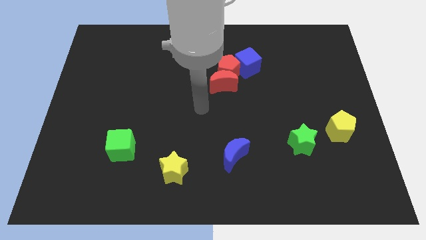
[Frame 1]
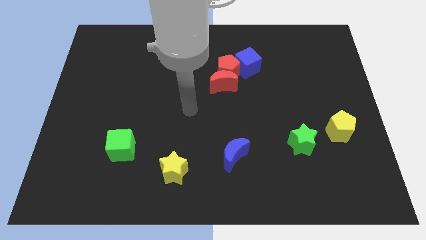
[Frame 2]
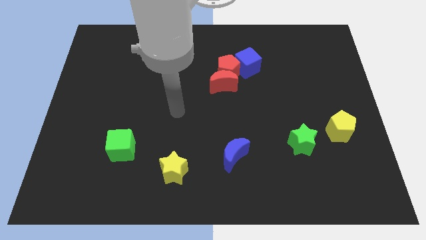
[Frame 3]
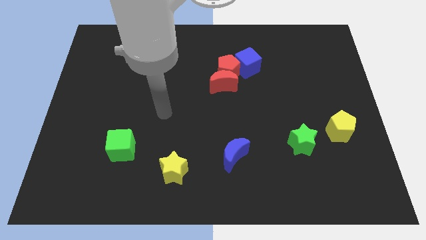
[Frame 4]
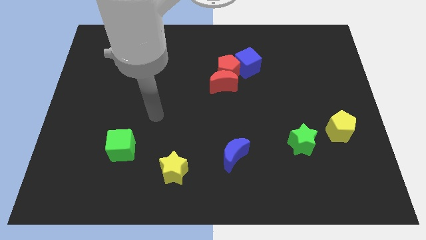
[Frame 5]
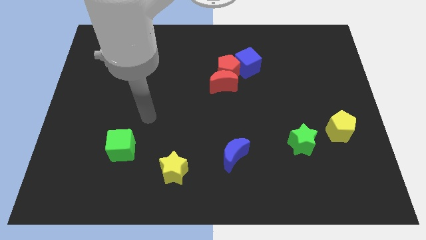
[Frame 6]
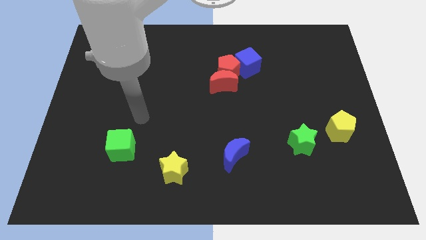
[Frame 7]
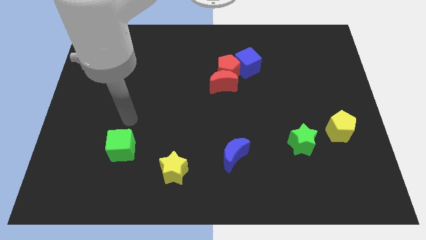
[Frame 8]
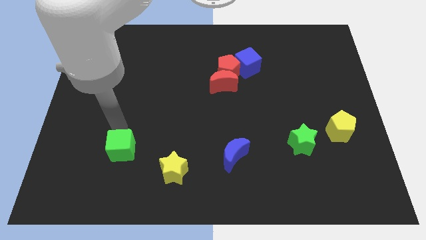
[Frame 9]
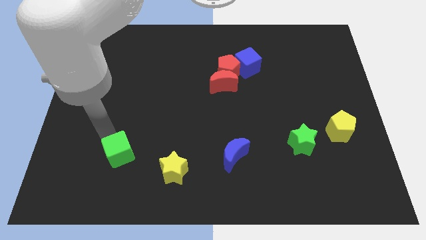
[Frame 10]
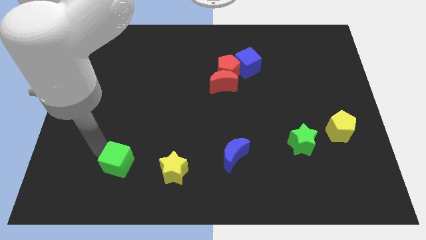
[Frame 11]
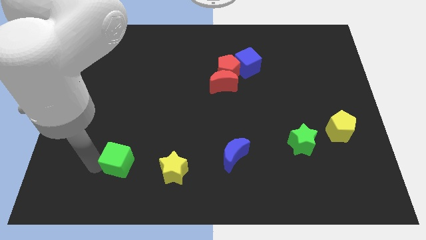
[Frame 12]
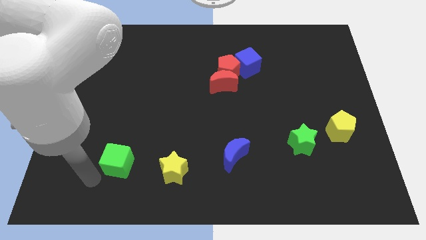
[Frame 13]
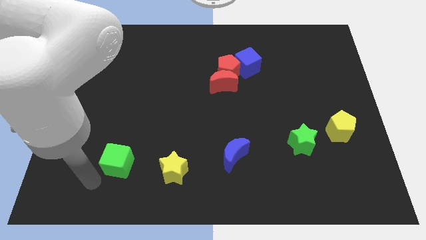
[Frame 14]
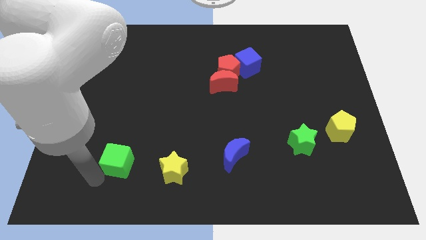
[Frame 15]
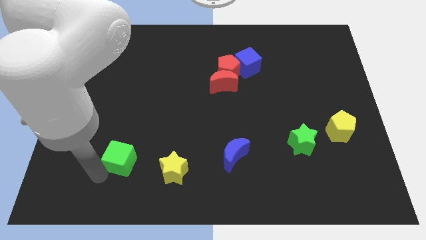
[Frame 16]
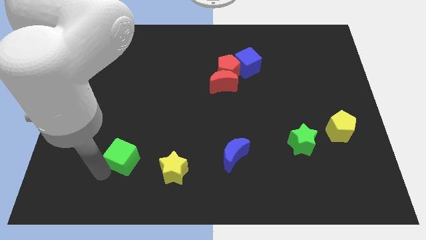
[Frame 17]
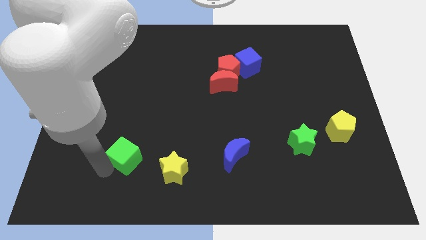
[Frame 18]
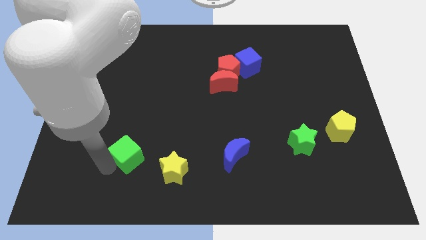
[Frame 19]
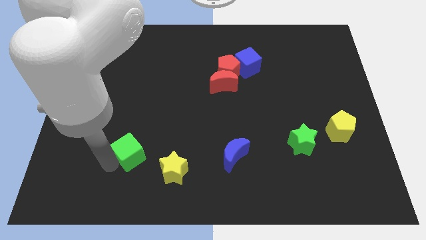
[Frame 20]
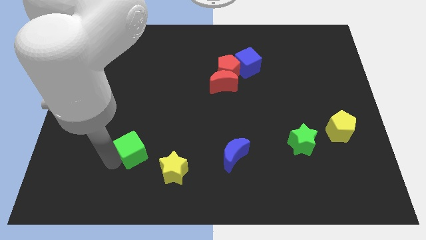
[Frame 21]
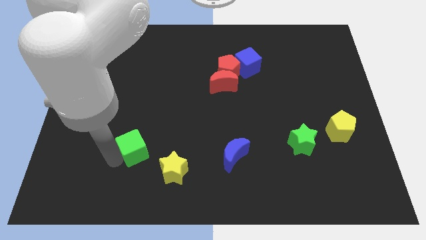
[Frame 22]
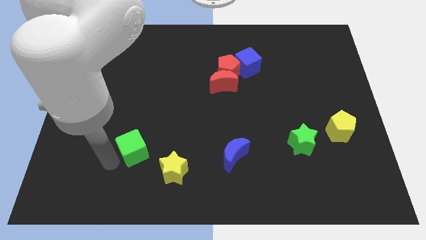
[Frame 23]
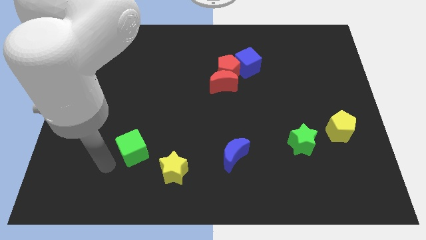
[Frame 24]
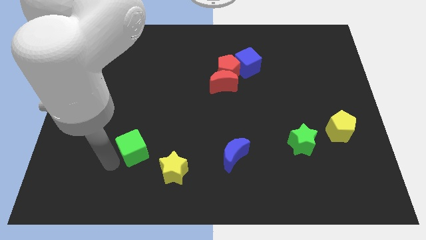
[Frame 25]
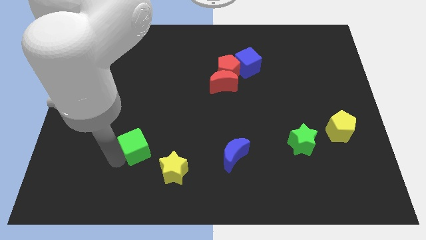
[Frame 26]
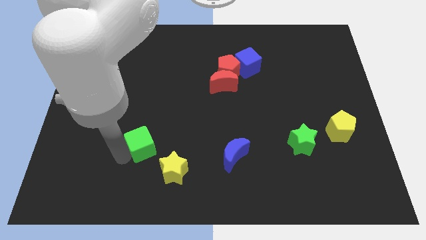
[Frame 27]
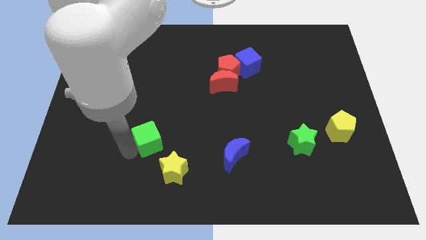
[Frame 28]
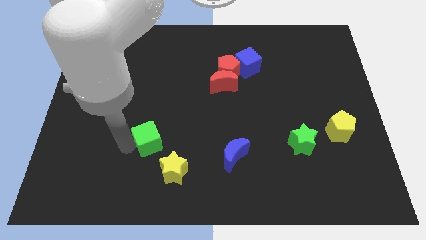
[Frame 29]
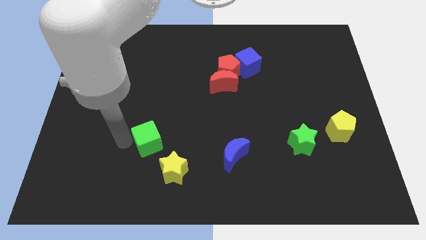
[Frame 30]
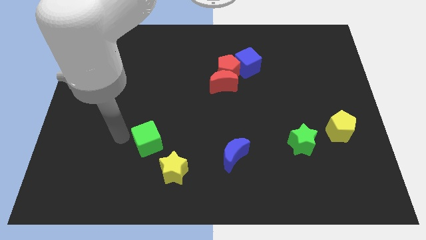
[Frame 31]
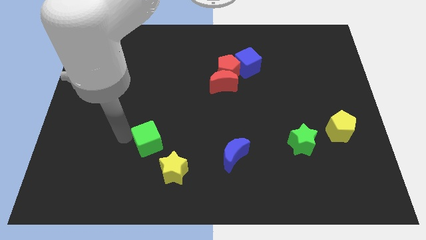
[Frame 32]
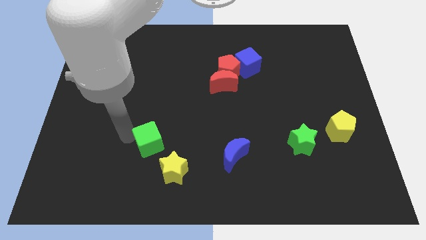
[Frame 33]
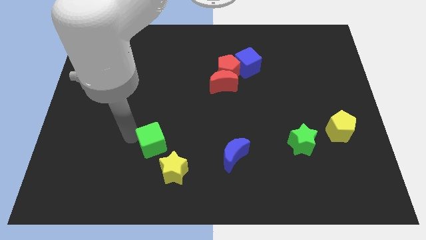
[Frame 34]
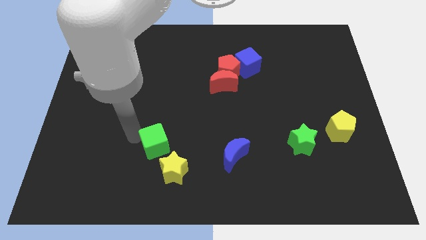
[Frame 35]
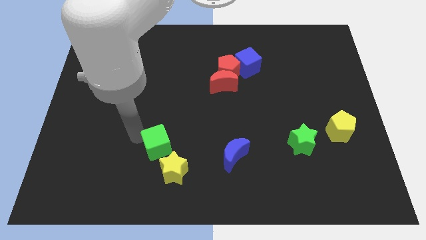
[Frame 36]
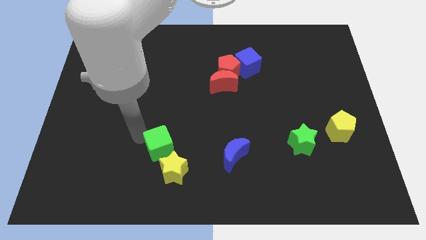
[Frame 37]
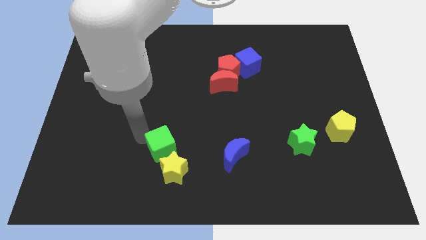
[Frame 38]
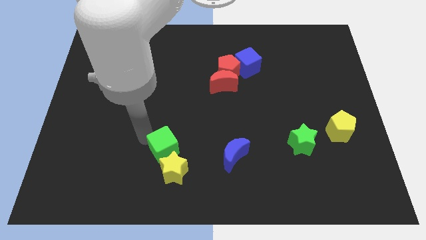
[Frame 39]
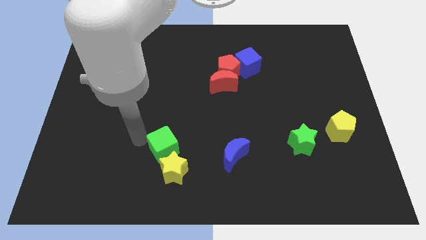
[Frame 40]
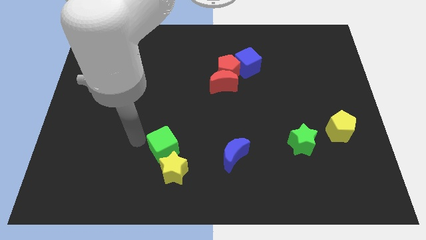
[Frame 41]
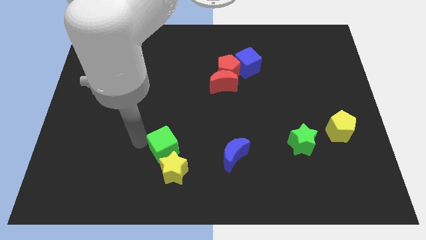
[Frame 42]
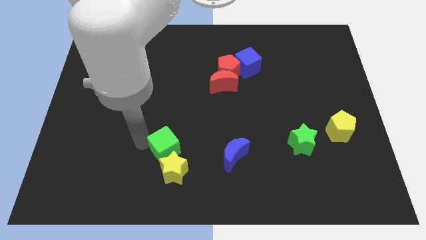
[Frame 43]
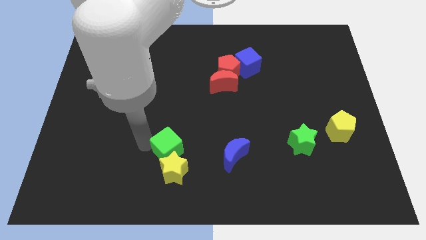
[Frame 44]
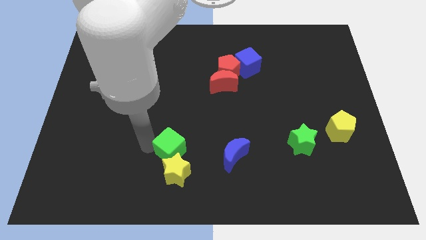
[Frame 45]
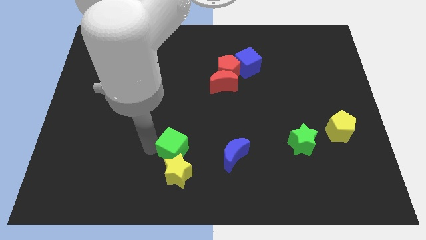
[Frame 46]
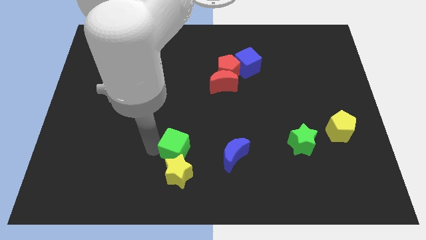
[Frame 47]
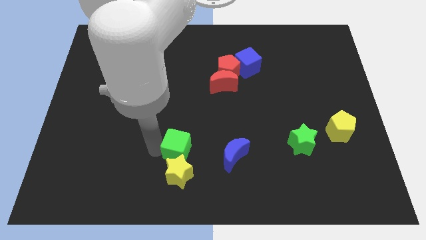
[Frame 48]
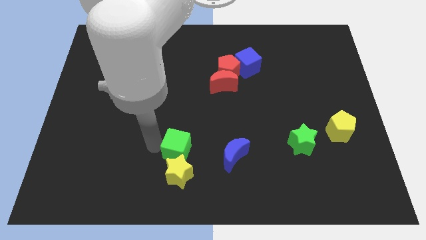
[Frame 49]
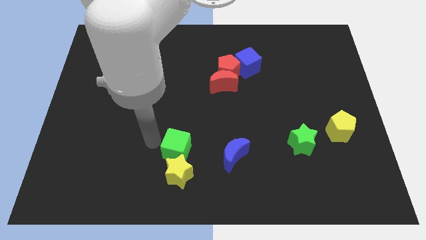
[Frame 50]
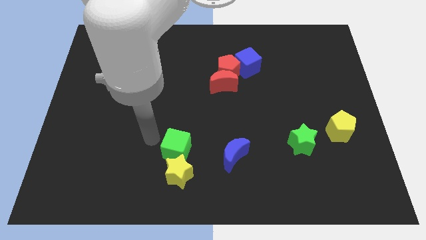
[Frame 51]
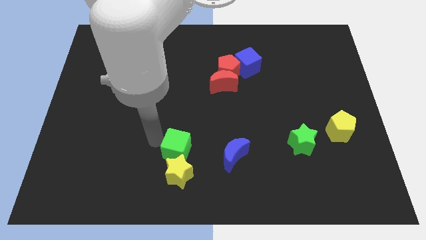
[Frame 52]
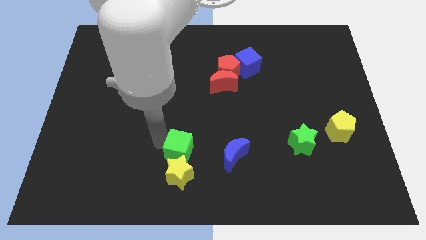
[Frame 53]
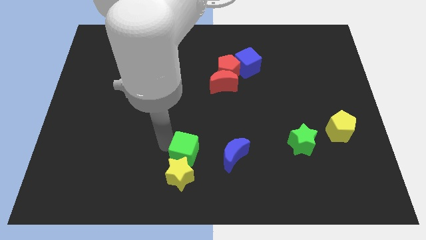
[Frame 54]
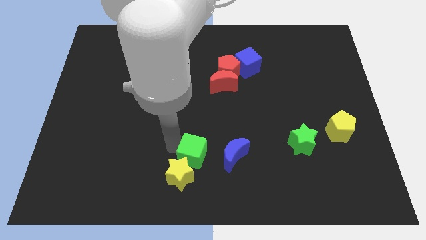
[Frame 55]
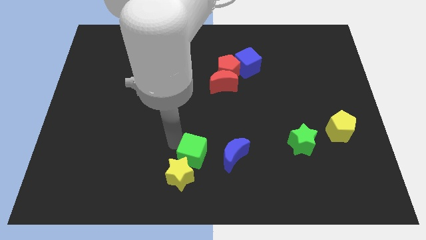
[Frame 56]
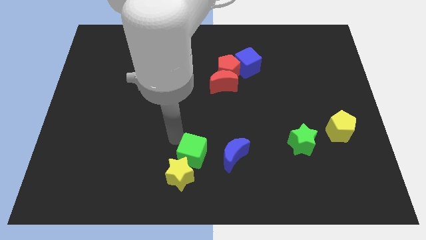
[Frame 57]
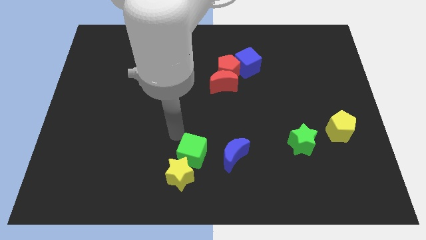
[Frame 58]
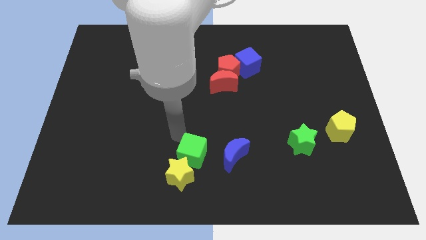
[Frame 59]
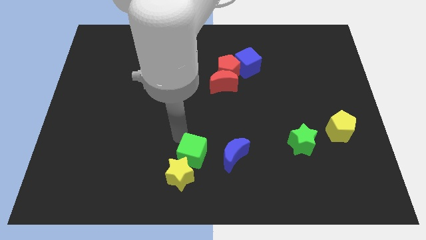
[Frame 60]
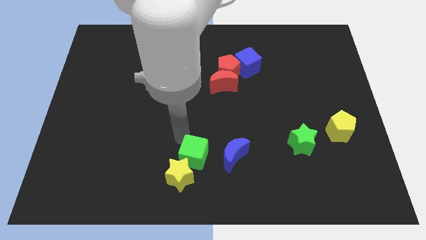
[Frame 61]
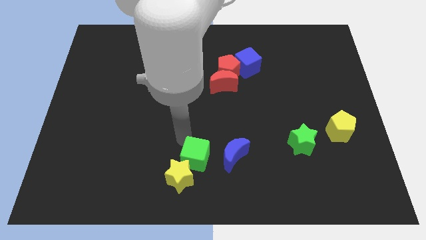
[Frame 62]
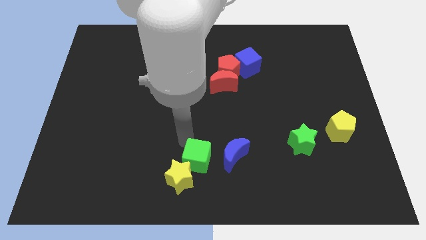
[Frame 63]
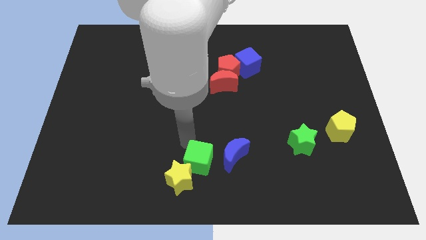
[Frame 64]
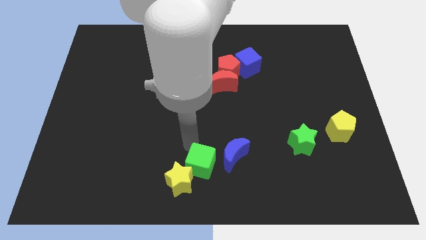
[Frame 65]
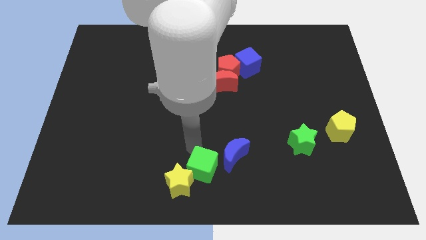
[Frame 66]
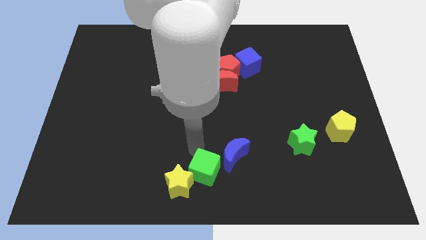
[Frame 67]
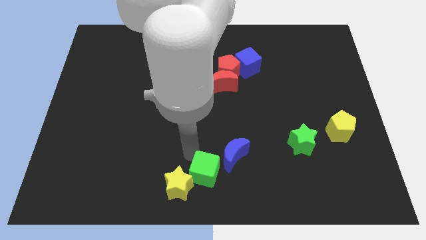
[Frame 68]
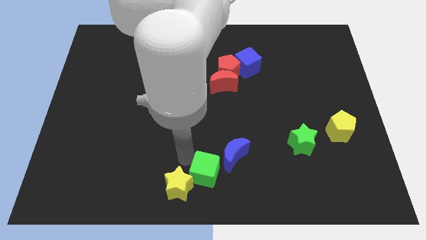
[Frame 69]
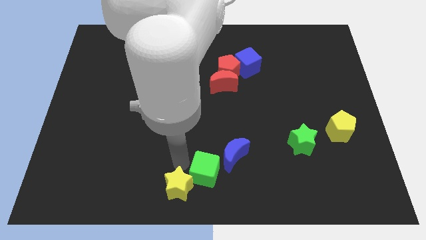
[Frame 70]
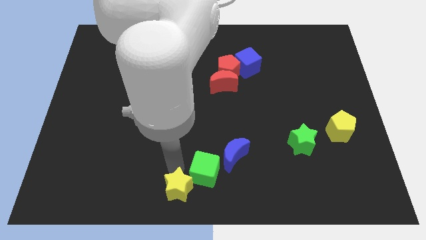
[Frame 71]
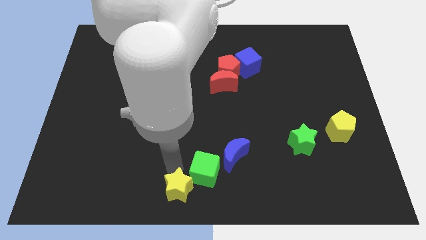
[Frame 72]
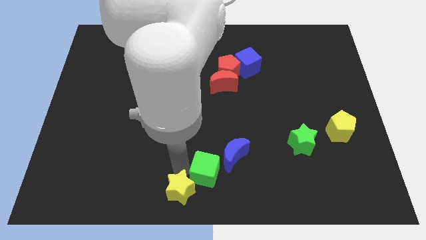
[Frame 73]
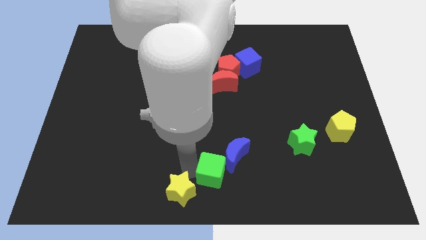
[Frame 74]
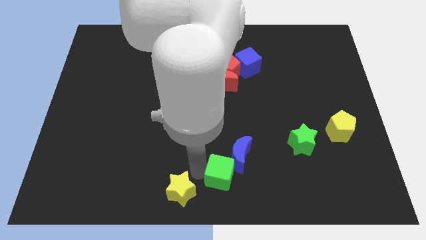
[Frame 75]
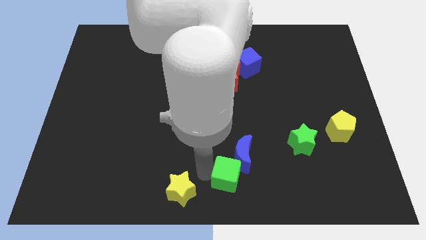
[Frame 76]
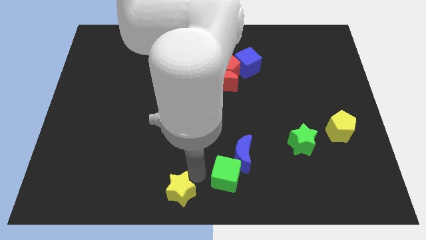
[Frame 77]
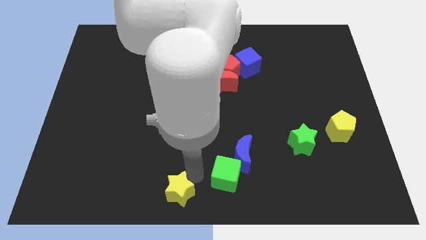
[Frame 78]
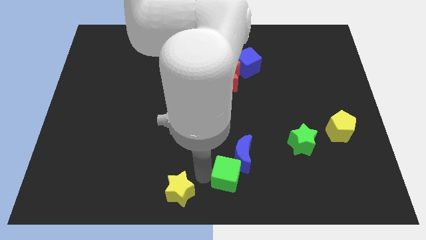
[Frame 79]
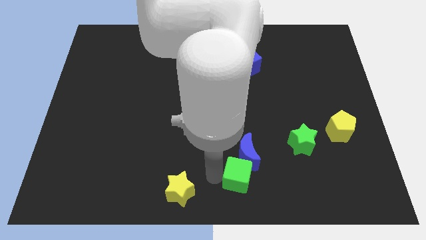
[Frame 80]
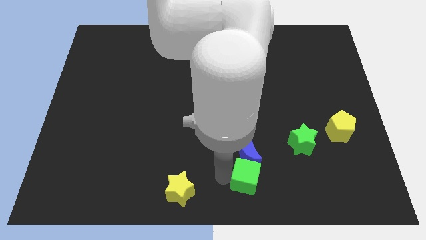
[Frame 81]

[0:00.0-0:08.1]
move the green cube to the bottom right side of the blue moon
